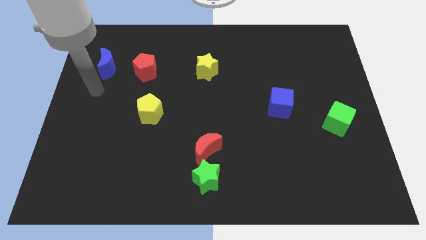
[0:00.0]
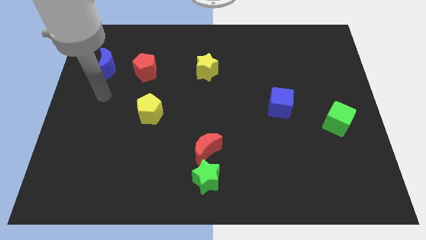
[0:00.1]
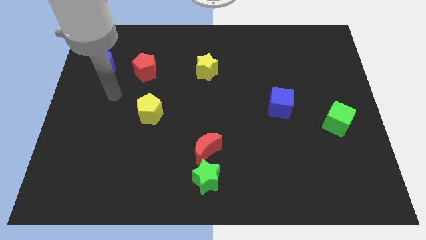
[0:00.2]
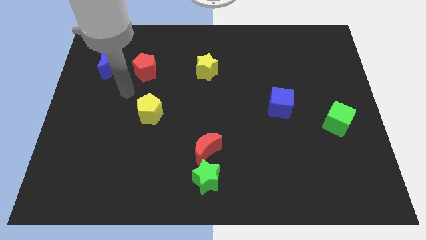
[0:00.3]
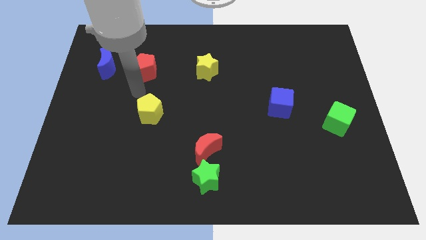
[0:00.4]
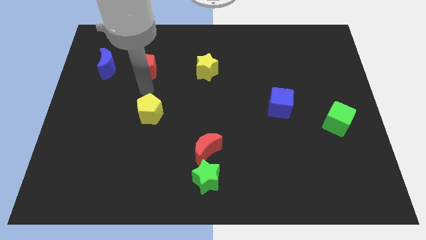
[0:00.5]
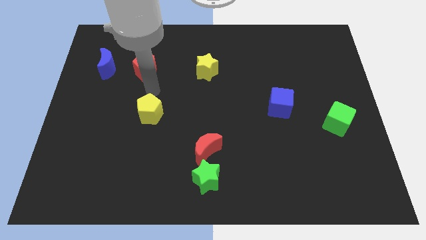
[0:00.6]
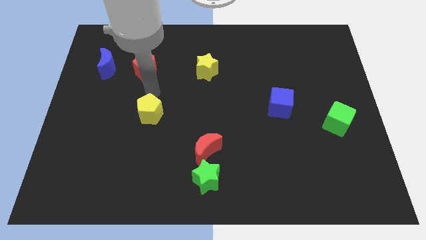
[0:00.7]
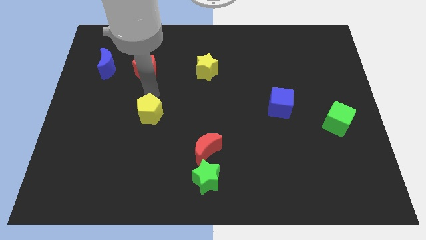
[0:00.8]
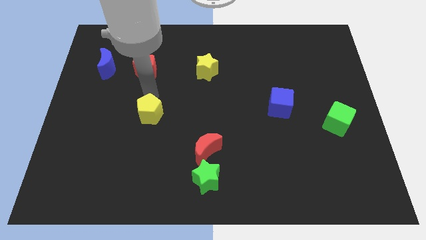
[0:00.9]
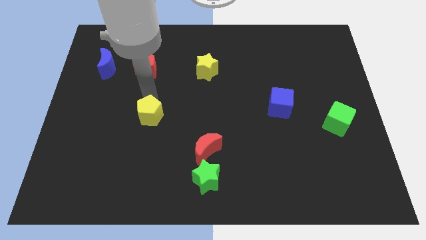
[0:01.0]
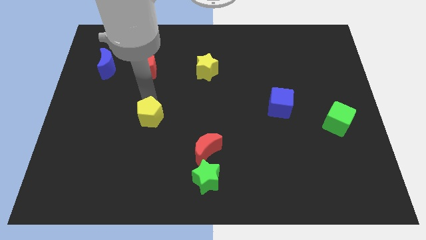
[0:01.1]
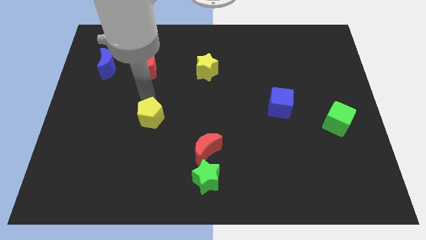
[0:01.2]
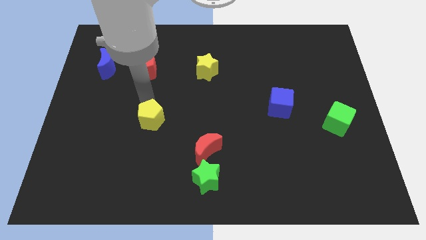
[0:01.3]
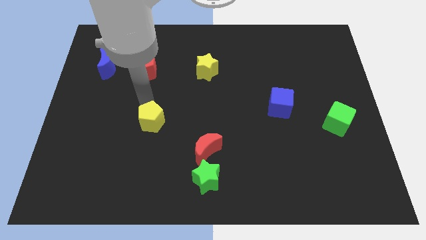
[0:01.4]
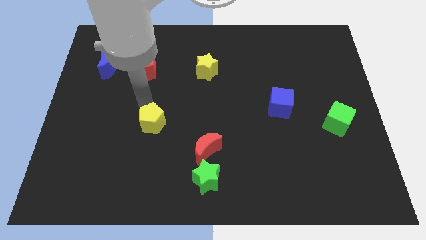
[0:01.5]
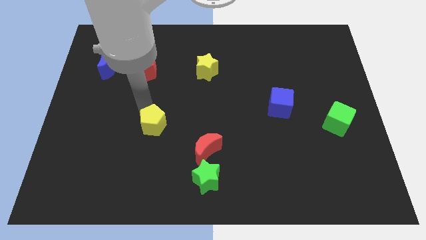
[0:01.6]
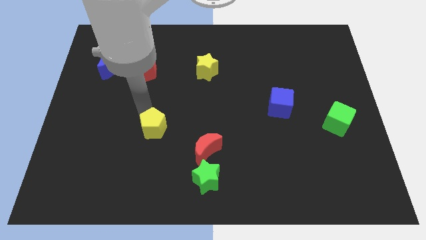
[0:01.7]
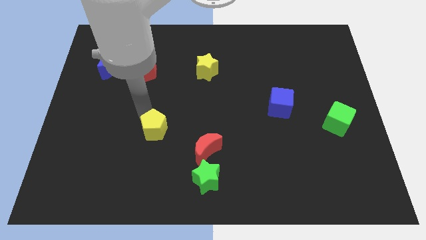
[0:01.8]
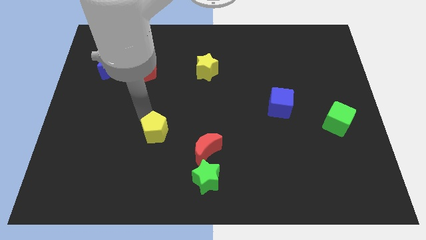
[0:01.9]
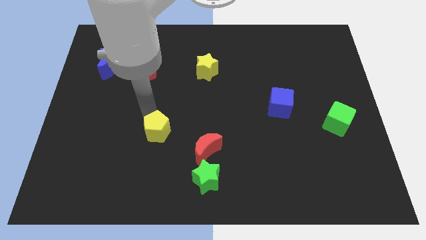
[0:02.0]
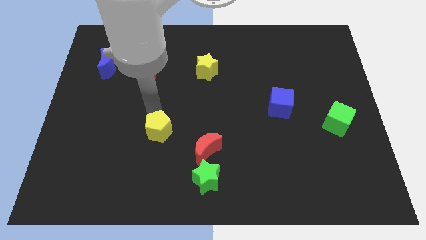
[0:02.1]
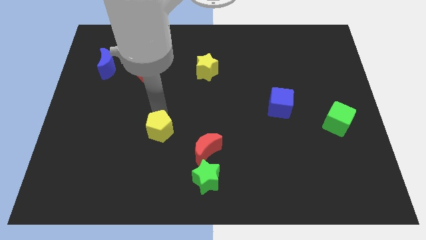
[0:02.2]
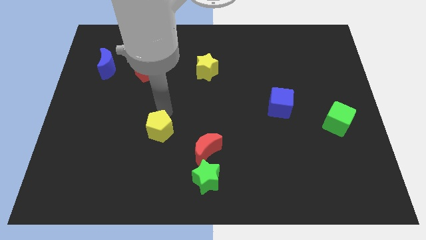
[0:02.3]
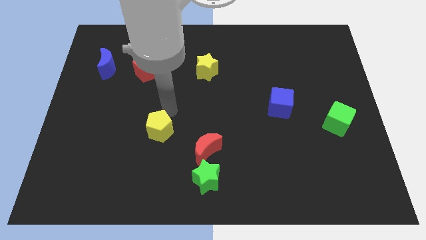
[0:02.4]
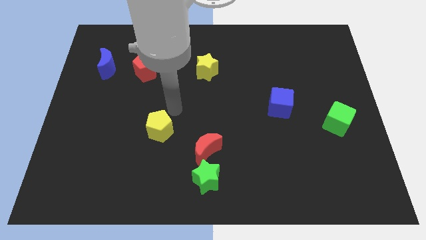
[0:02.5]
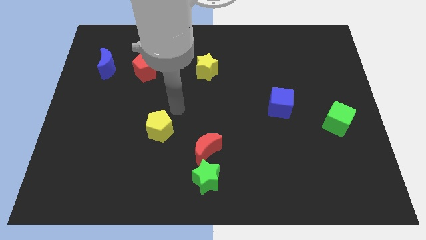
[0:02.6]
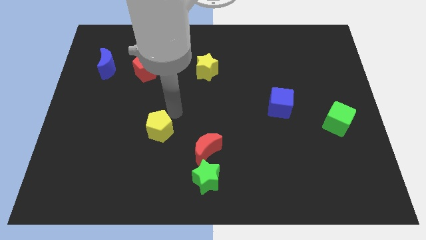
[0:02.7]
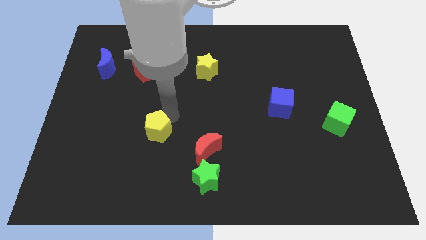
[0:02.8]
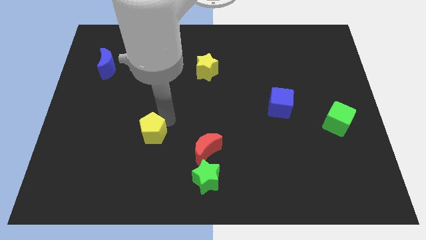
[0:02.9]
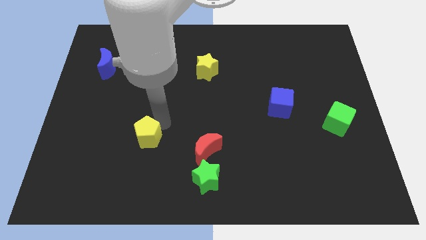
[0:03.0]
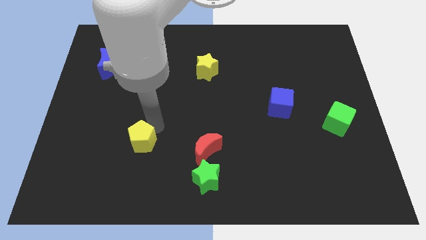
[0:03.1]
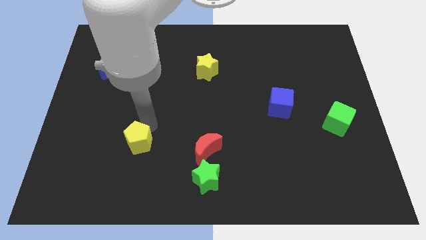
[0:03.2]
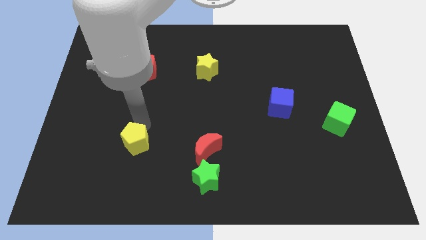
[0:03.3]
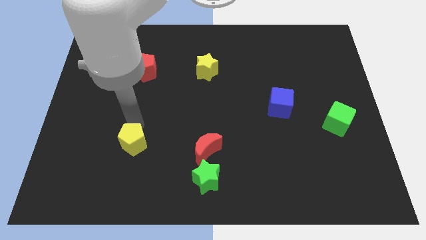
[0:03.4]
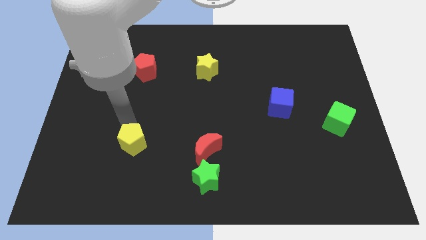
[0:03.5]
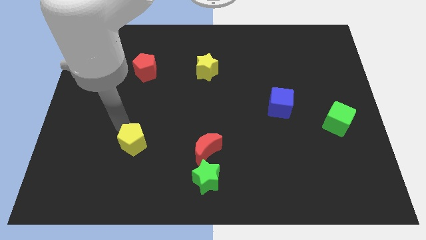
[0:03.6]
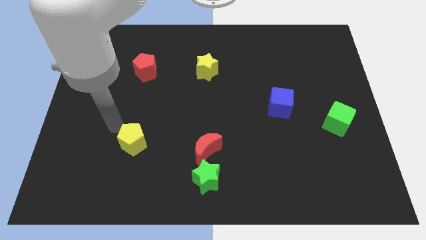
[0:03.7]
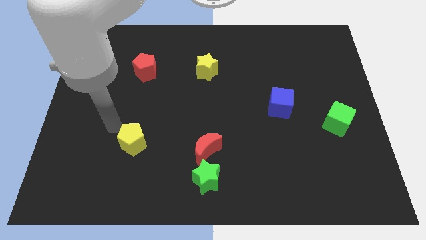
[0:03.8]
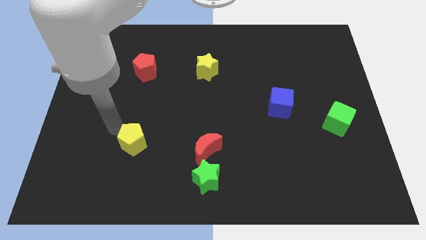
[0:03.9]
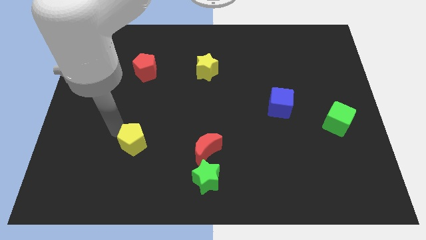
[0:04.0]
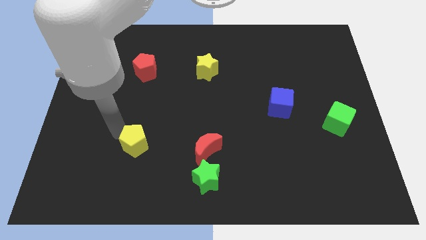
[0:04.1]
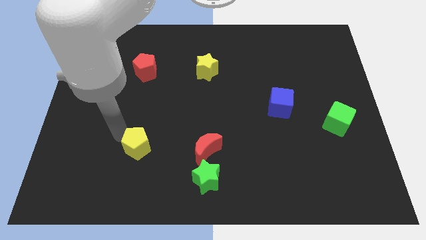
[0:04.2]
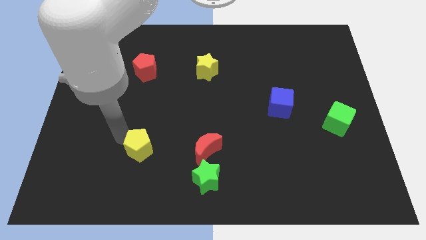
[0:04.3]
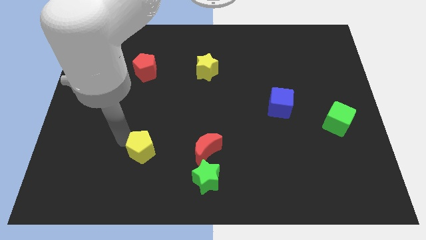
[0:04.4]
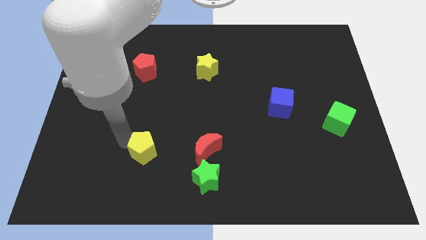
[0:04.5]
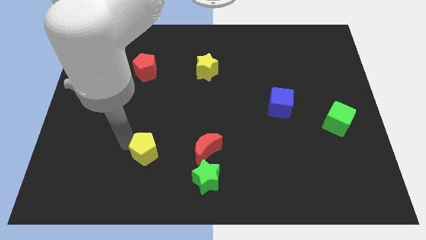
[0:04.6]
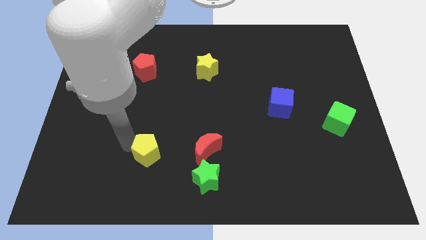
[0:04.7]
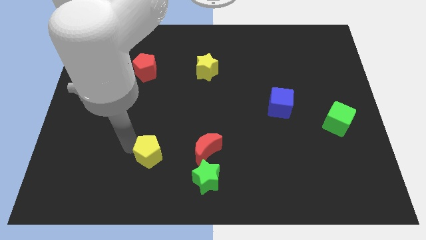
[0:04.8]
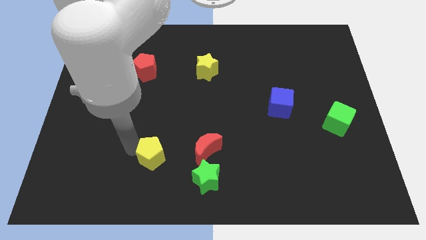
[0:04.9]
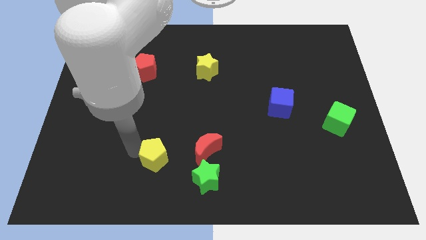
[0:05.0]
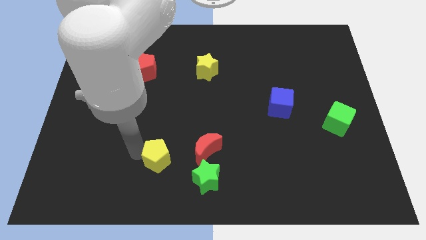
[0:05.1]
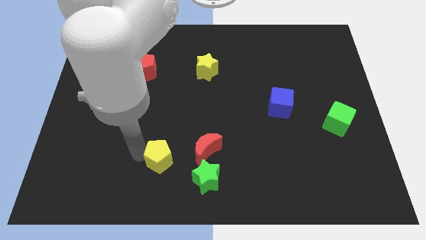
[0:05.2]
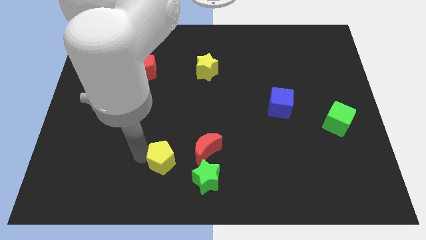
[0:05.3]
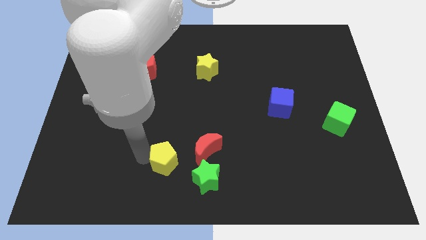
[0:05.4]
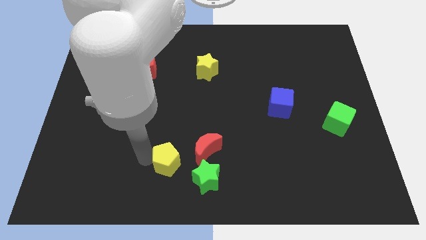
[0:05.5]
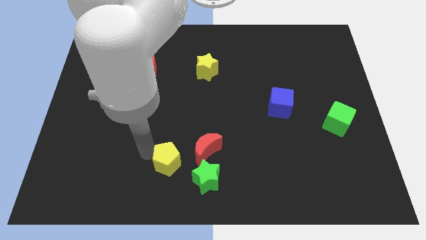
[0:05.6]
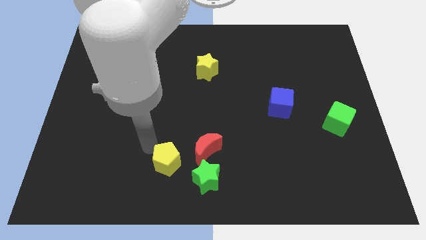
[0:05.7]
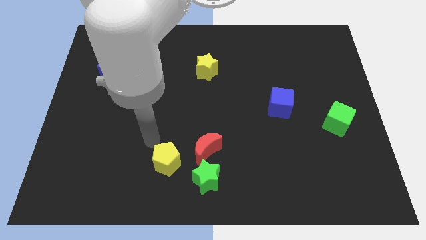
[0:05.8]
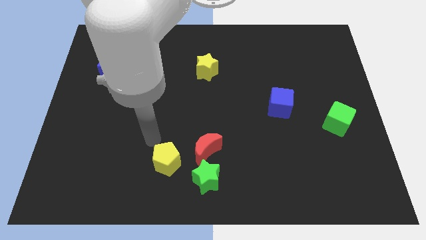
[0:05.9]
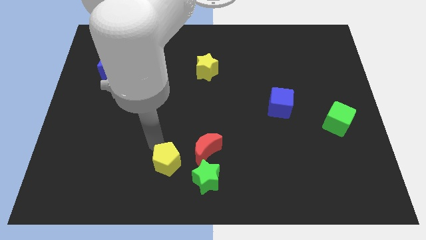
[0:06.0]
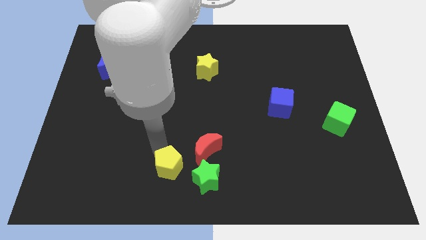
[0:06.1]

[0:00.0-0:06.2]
push the yellow pentagon to the bottom
